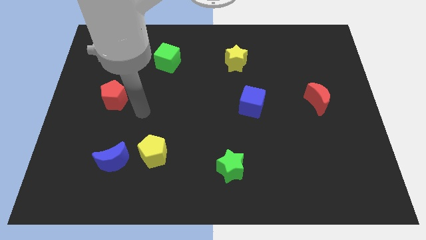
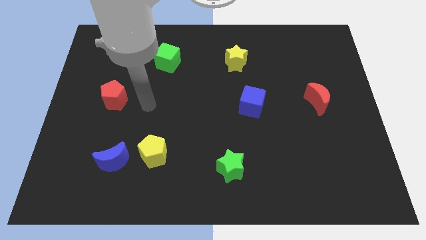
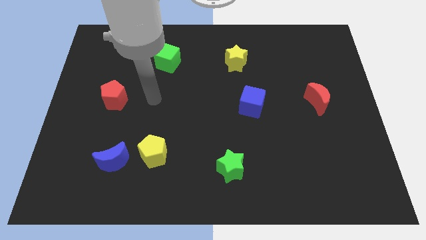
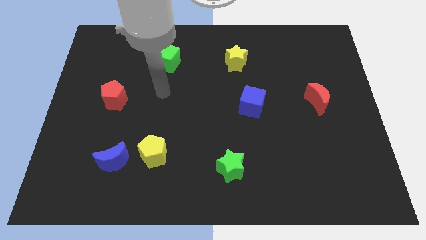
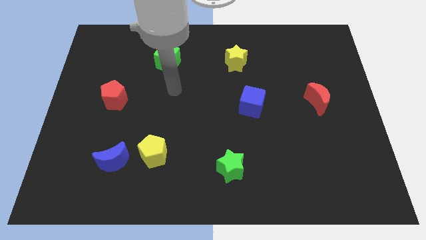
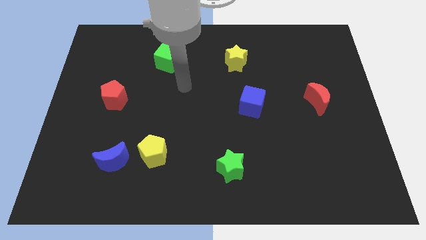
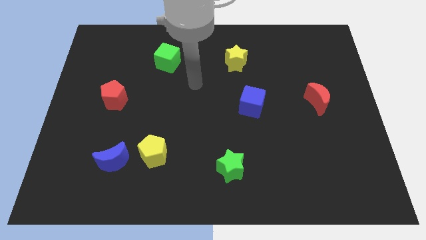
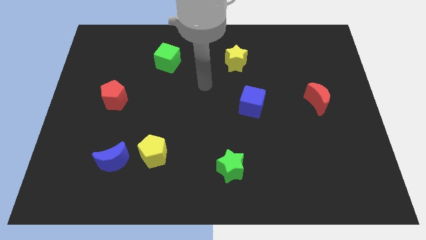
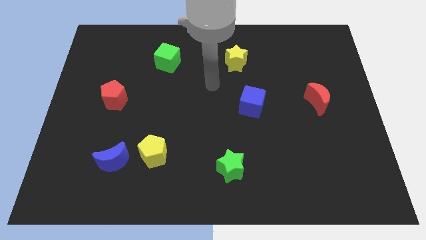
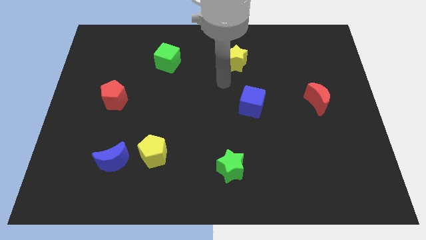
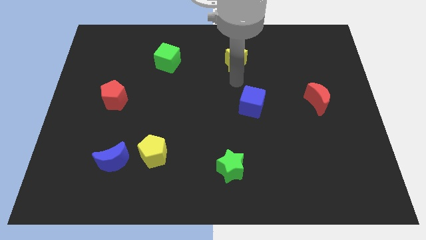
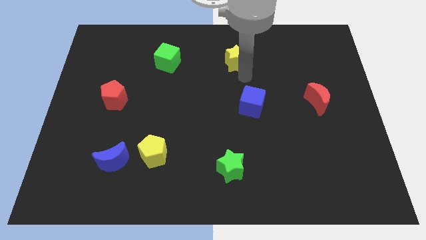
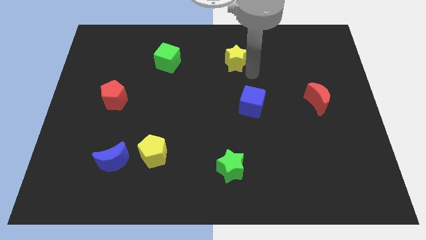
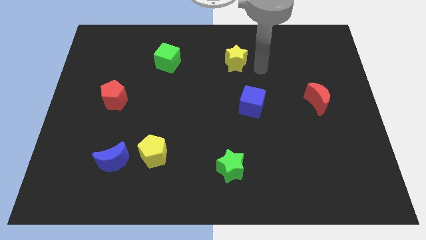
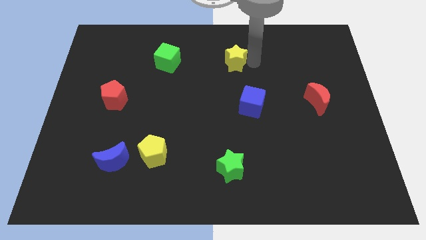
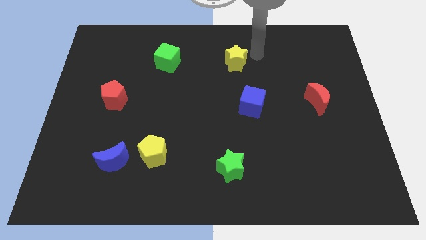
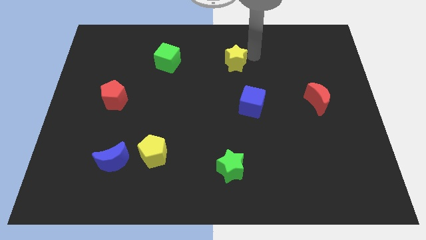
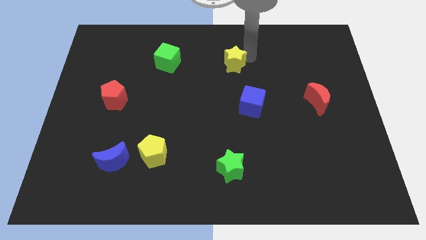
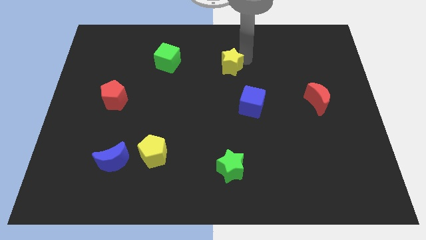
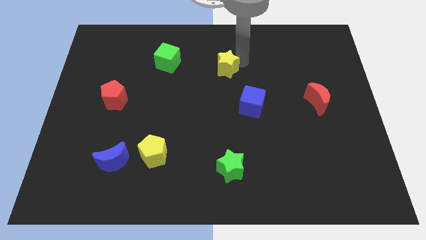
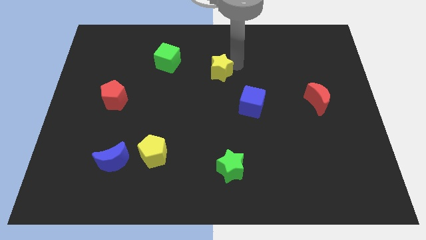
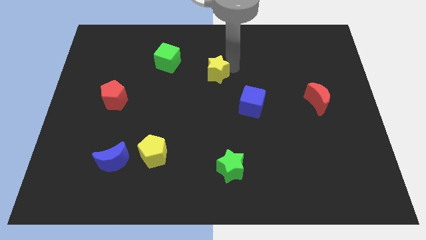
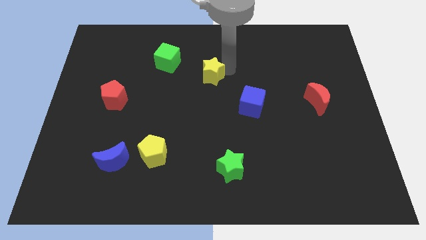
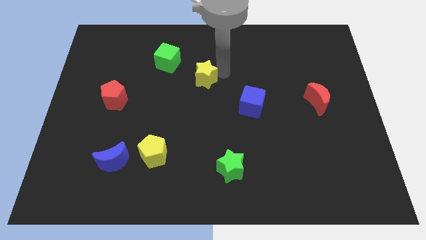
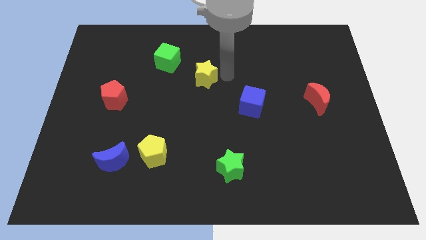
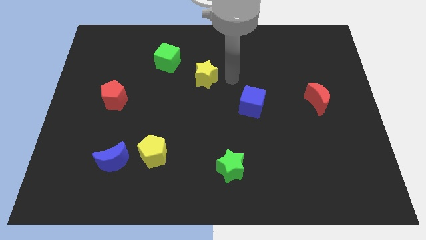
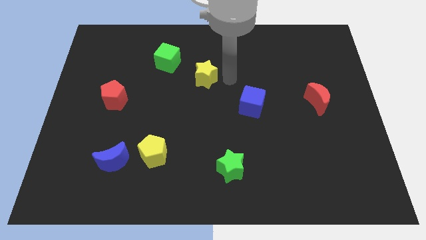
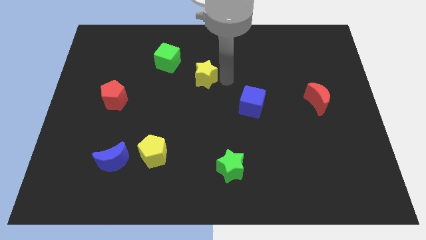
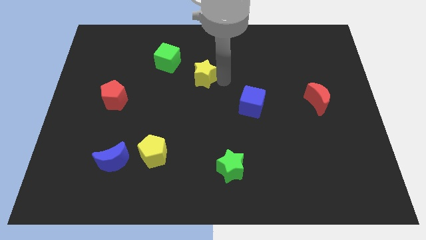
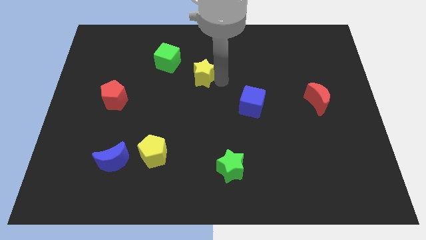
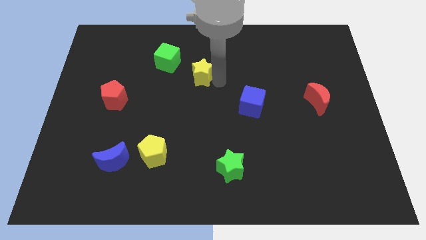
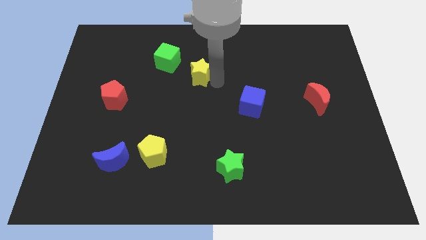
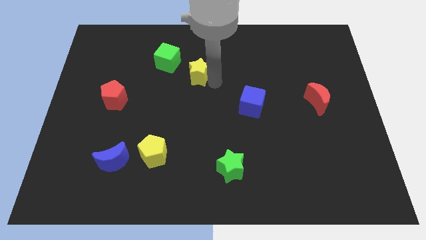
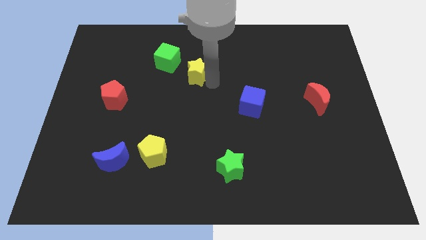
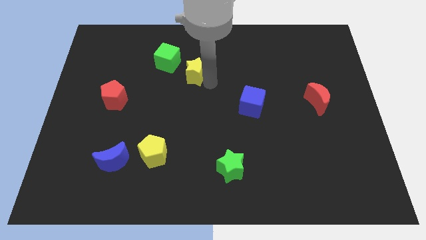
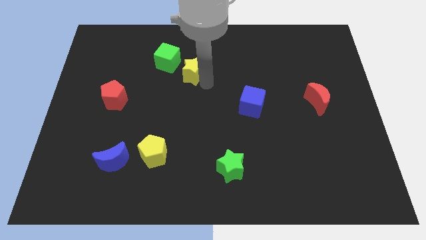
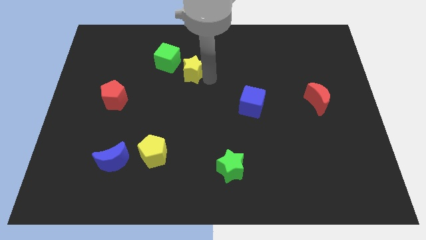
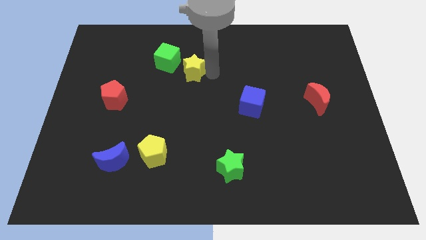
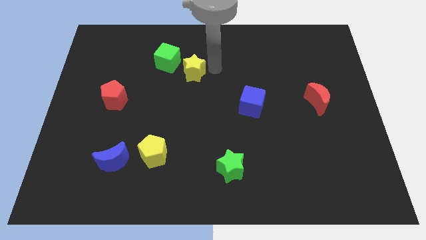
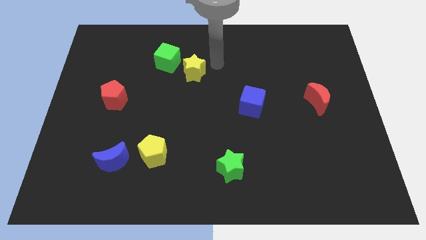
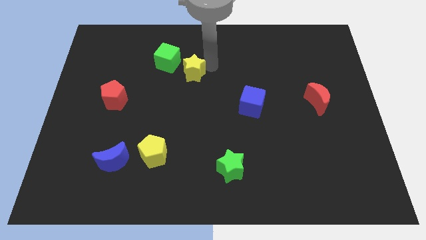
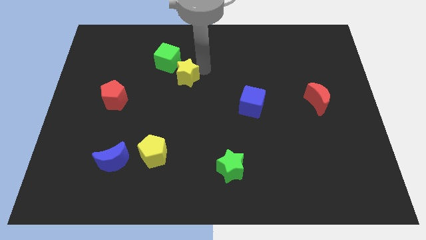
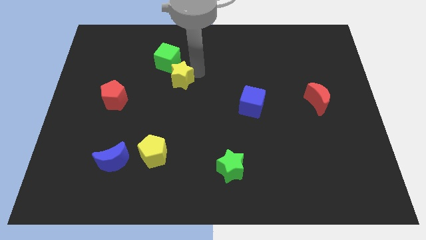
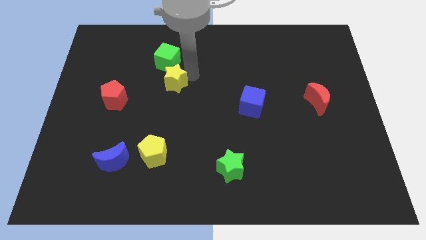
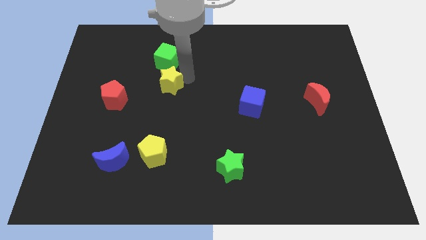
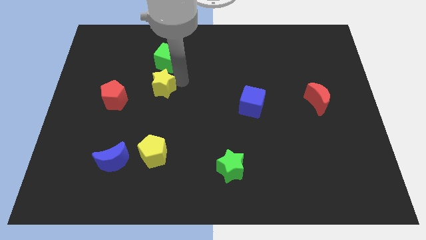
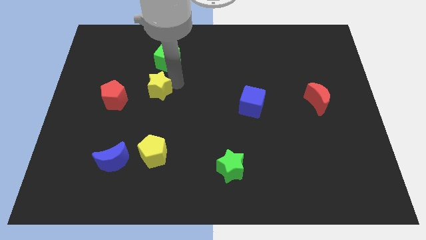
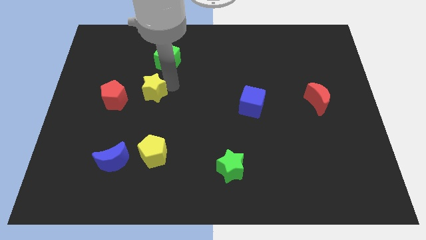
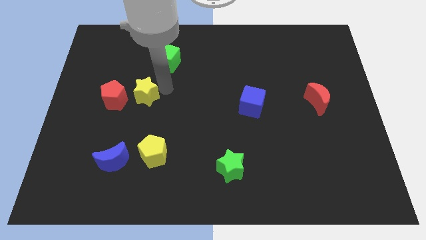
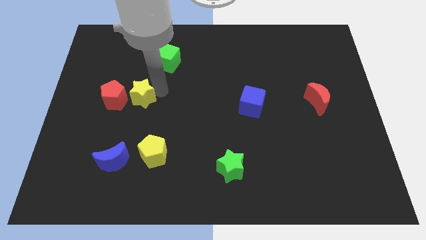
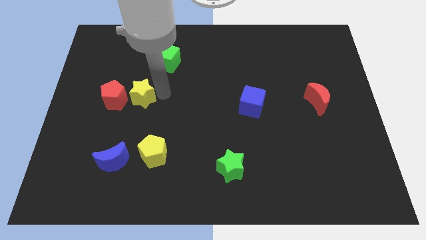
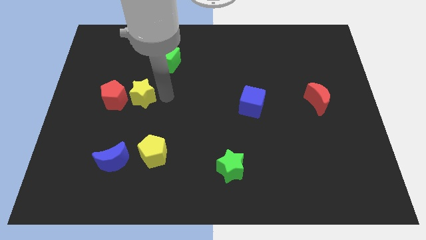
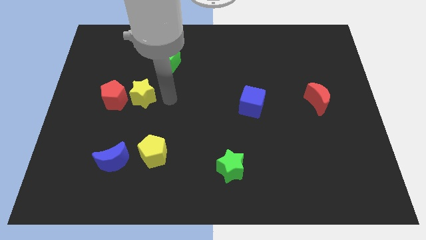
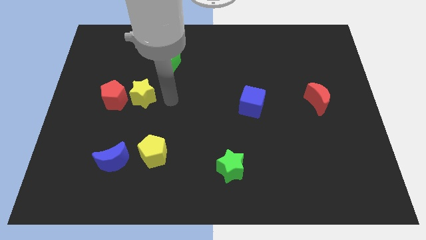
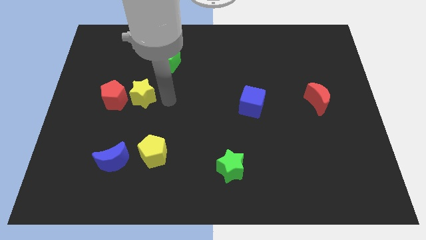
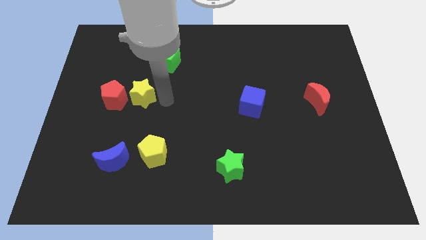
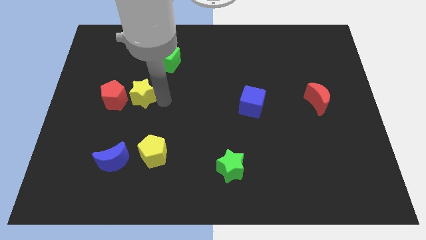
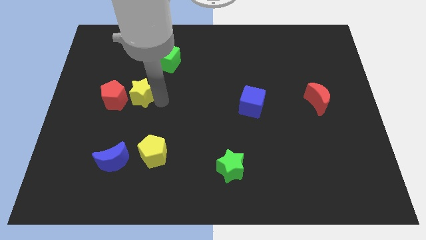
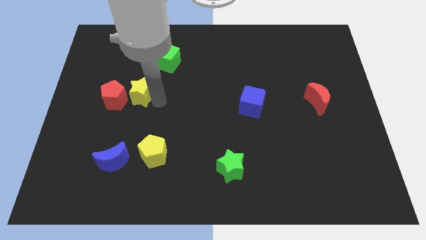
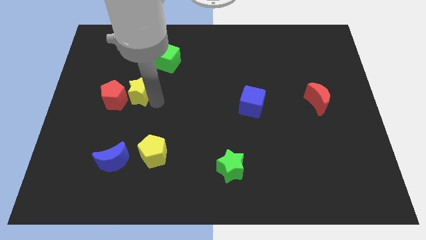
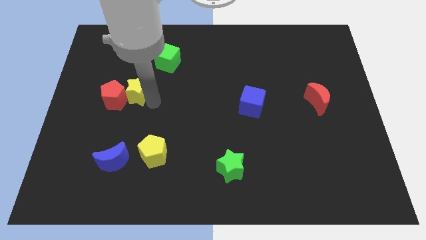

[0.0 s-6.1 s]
move the yellow star towards the red pentagon

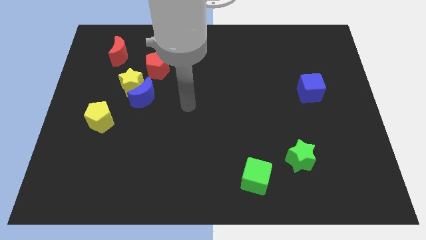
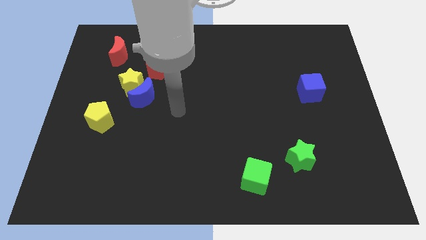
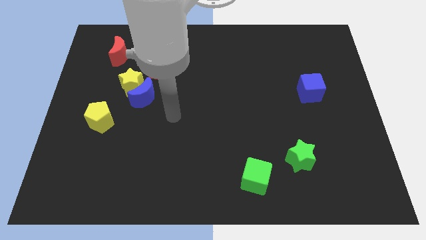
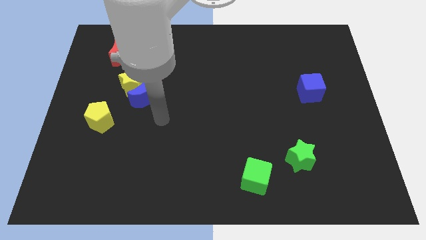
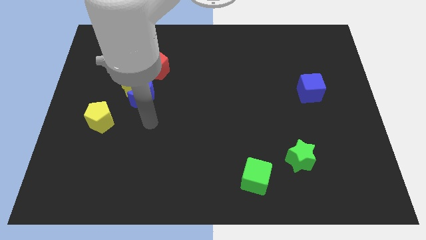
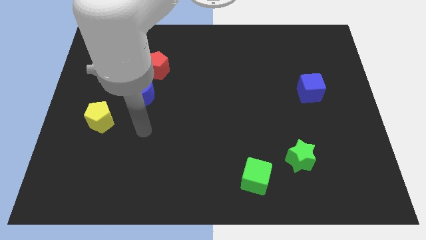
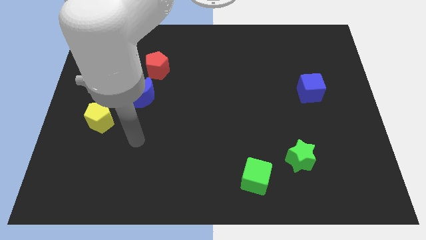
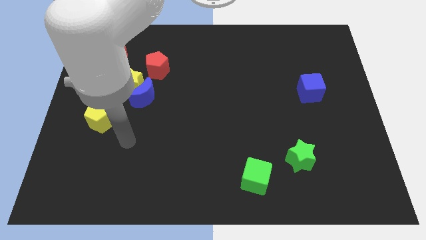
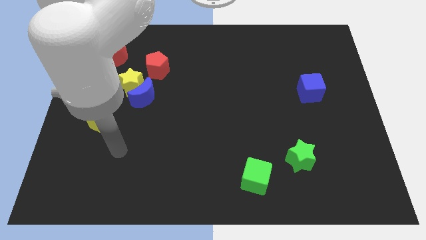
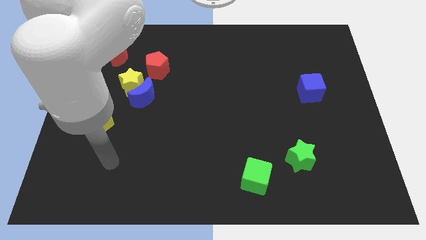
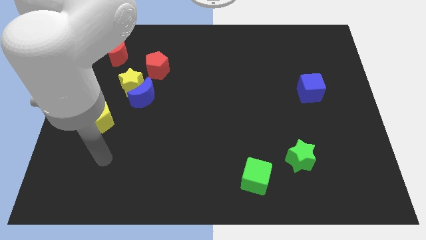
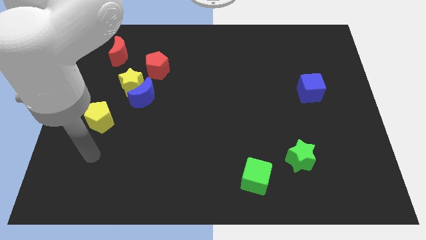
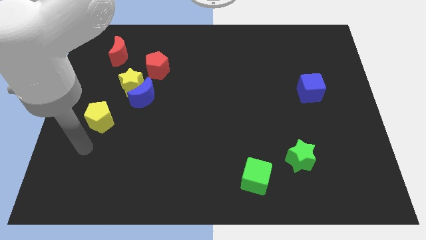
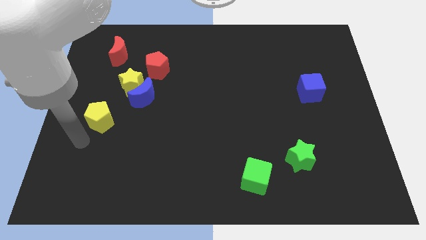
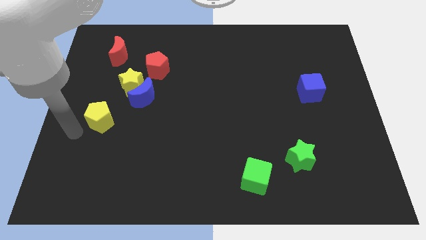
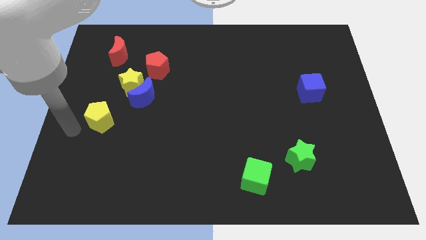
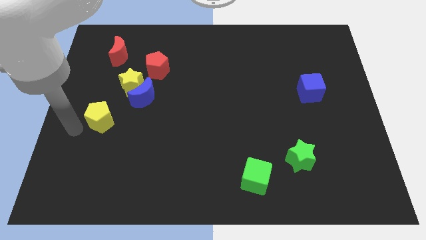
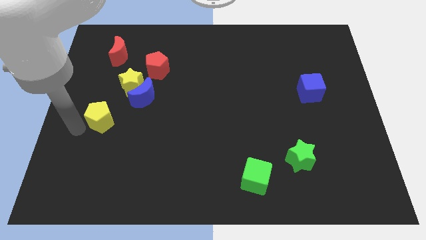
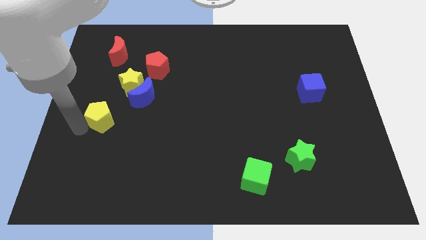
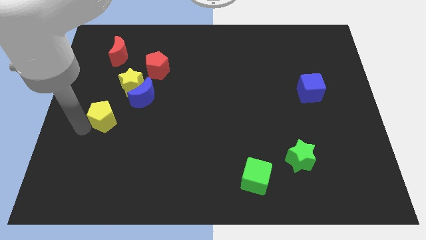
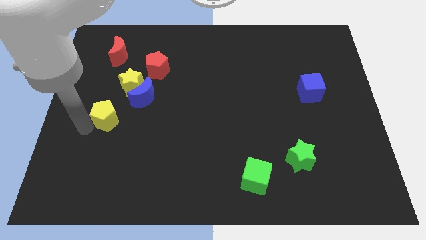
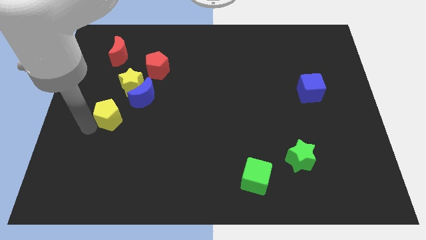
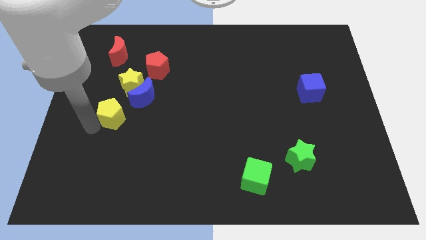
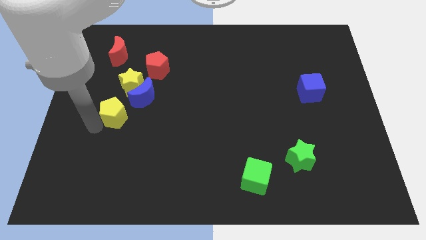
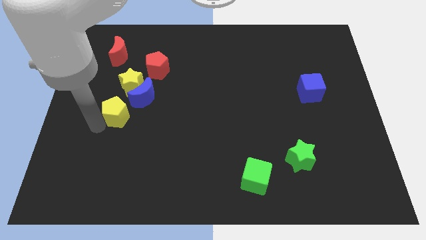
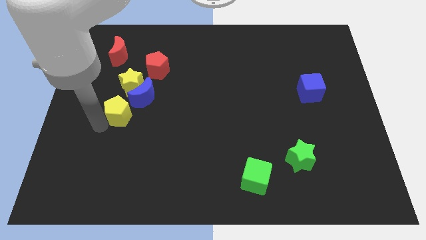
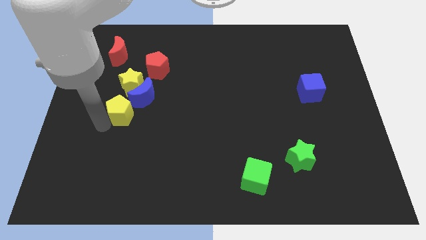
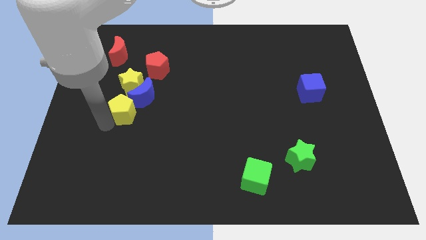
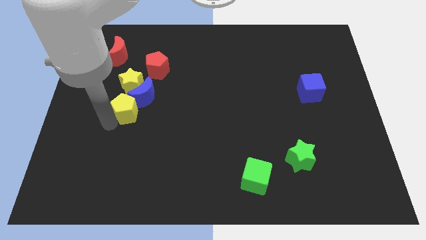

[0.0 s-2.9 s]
put the yellow pentagon towards the blue moon
